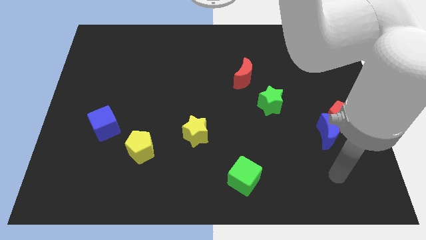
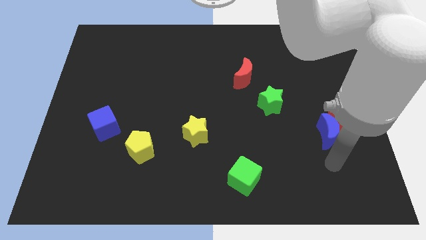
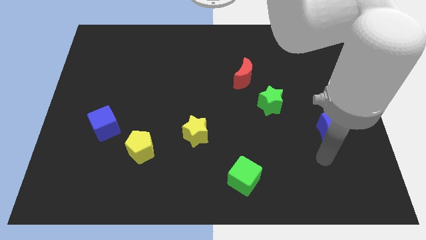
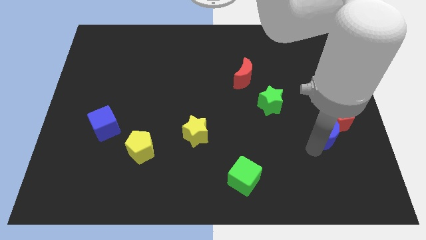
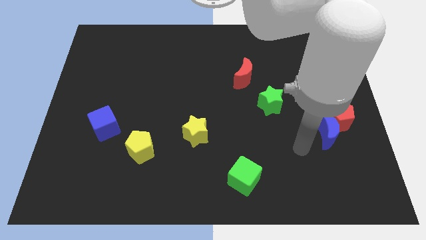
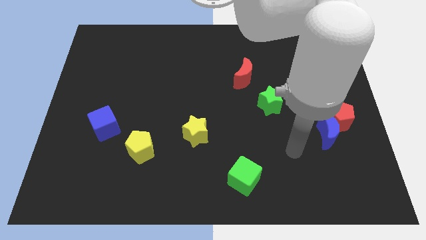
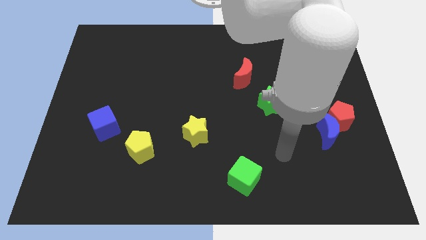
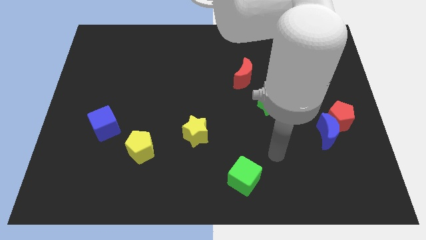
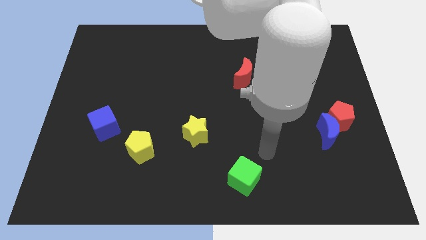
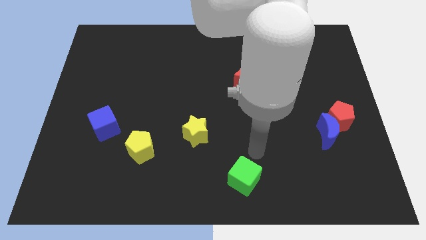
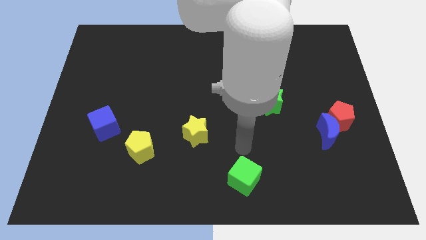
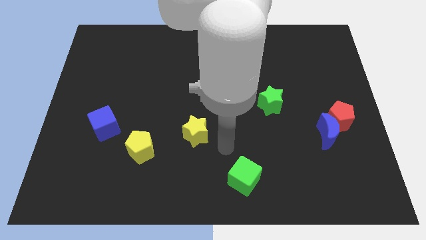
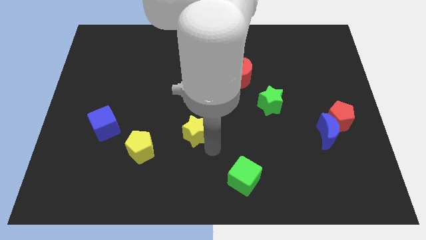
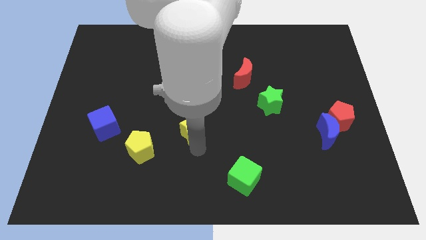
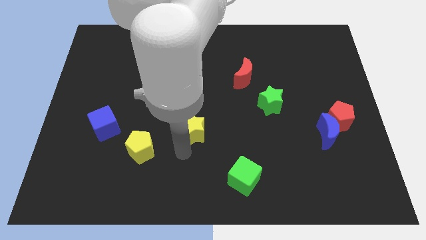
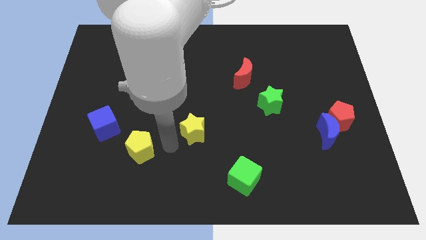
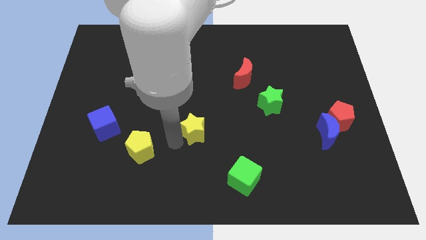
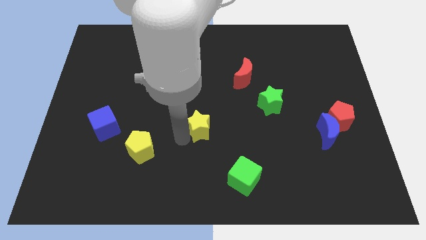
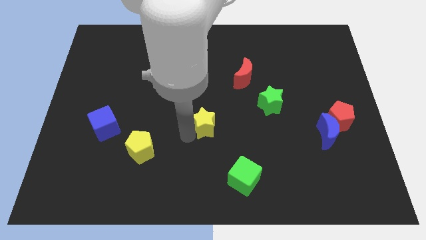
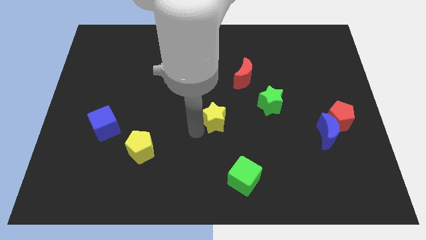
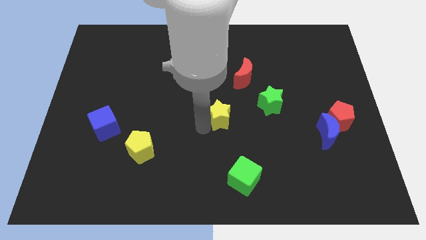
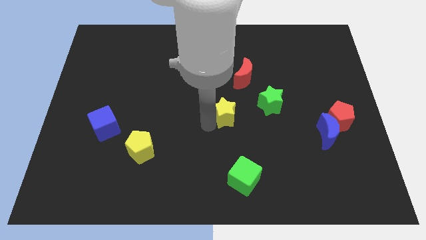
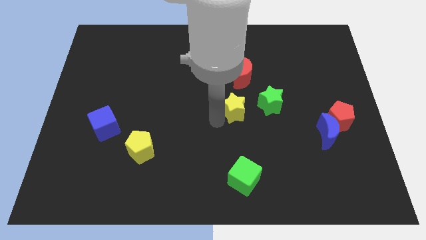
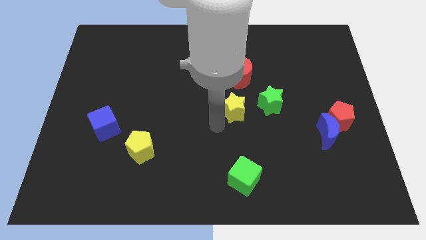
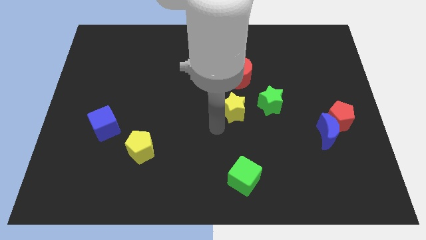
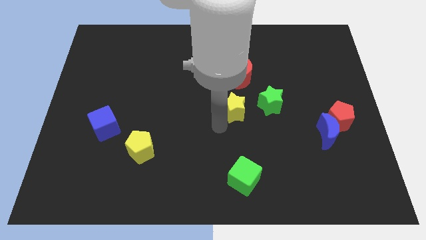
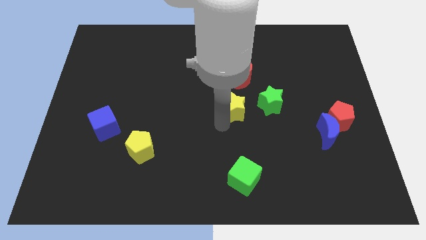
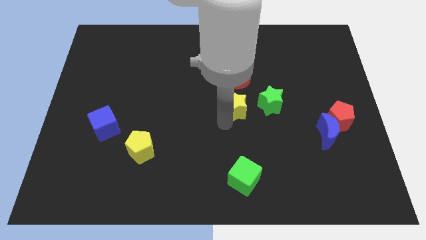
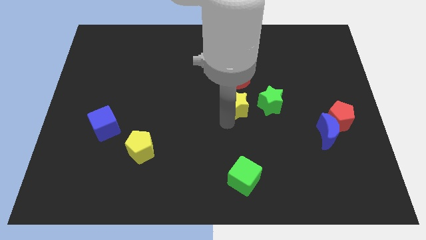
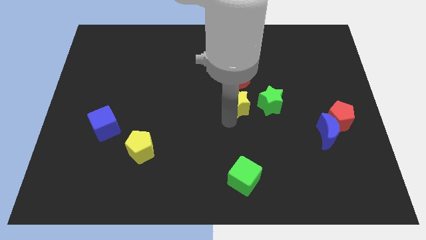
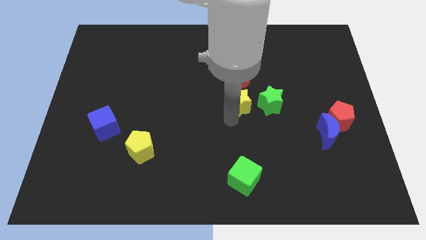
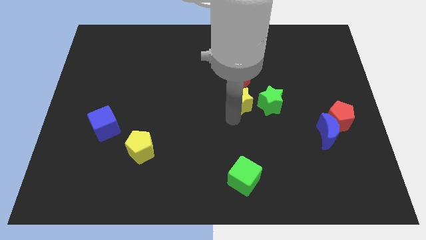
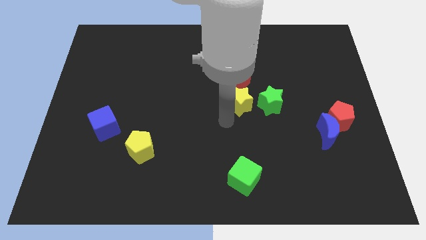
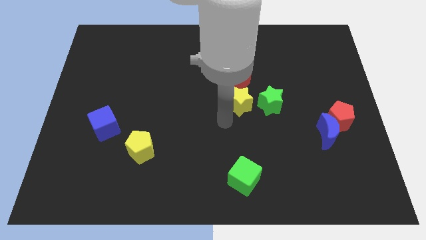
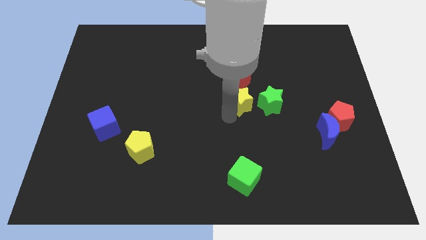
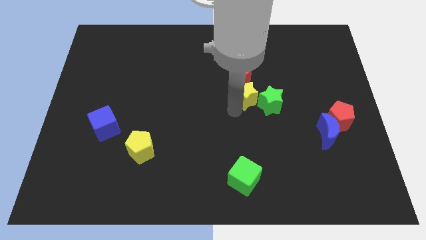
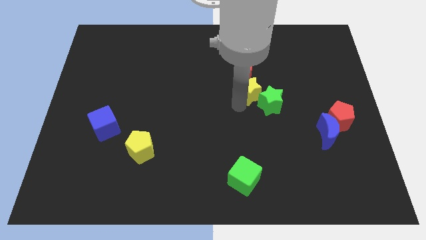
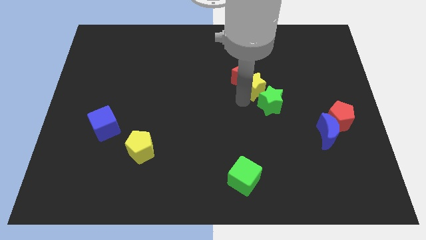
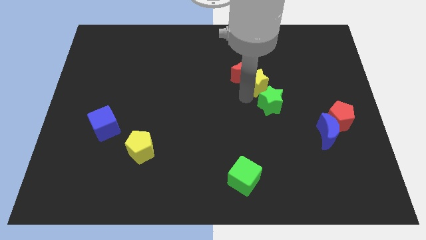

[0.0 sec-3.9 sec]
slide the yellow star upwards and then right

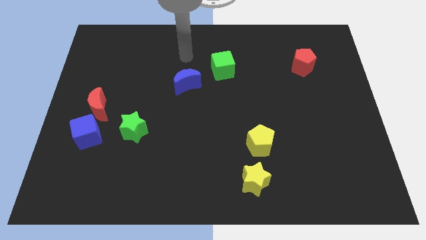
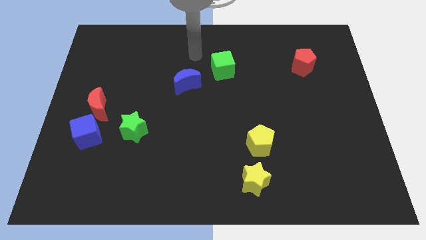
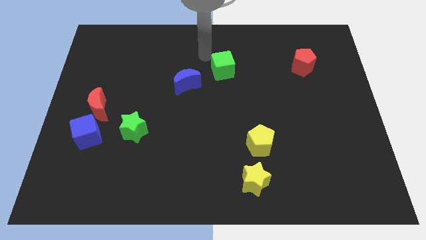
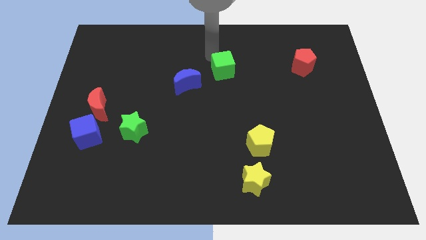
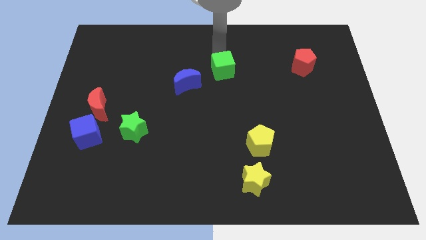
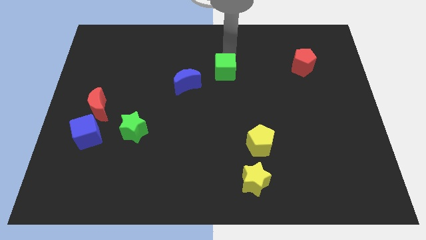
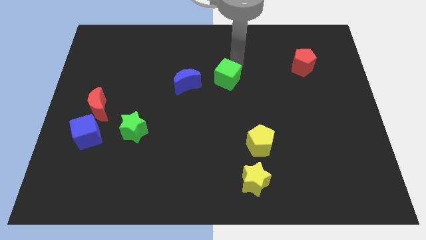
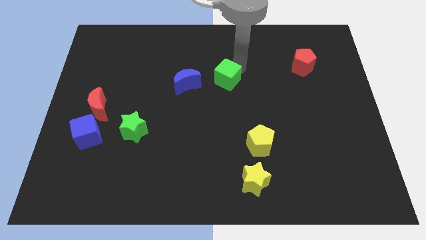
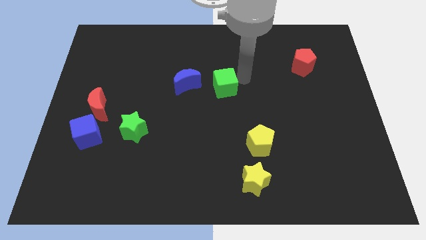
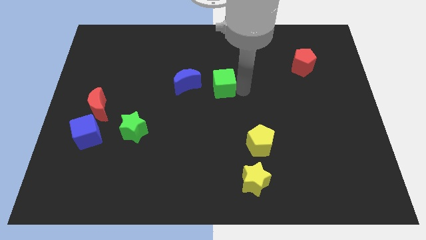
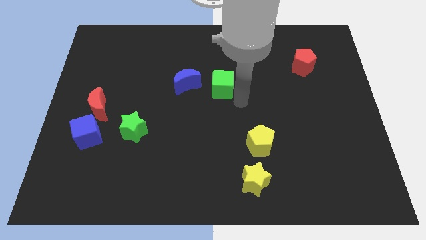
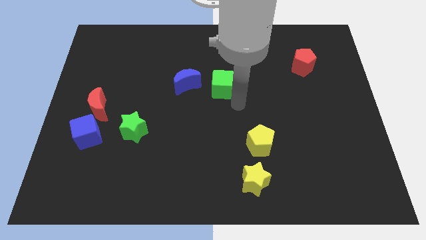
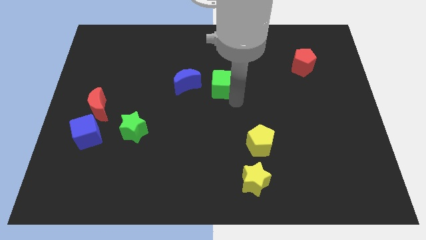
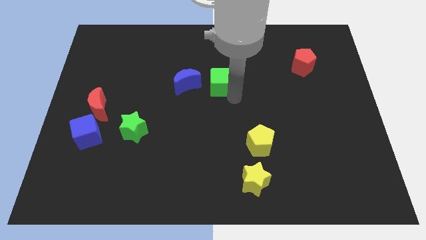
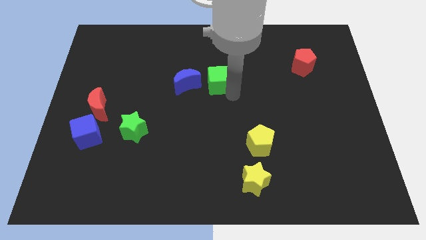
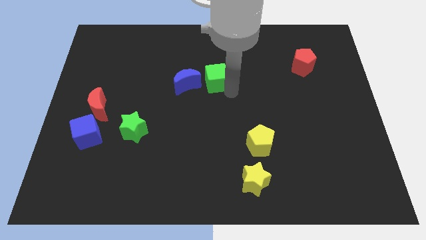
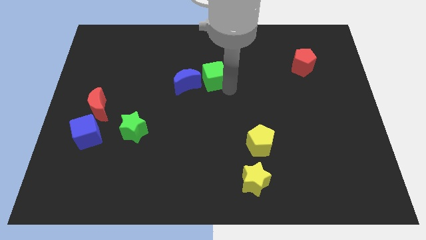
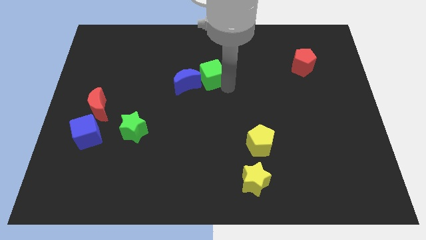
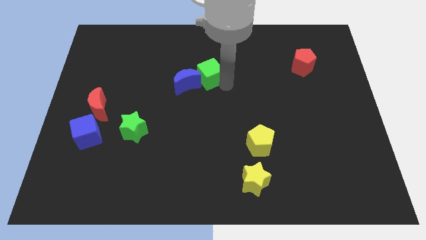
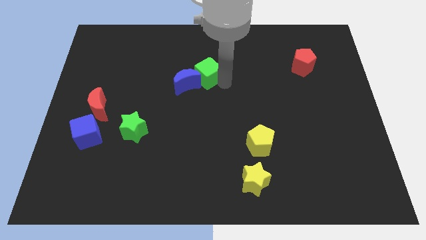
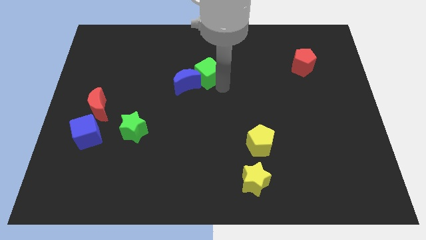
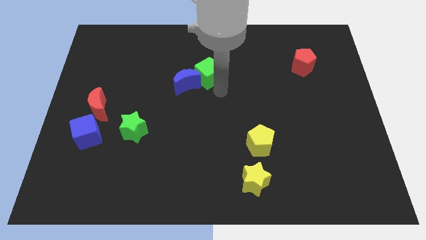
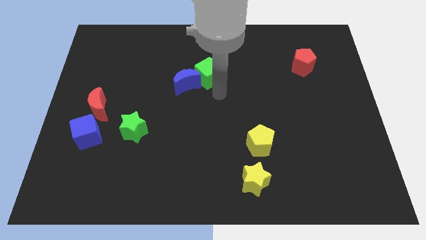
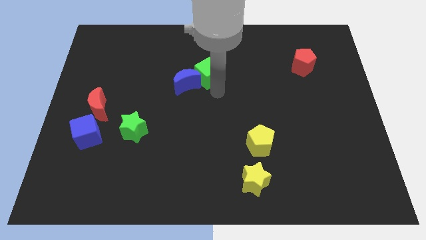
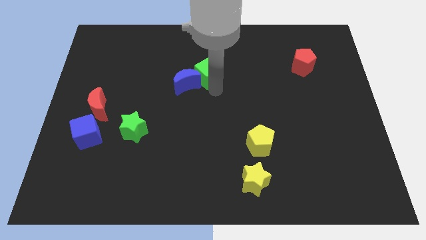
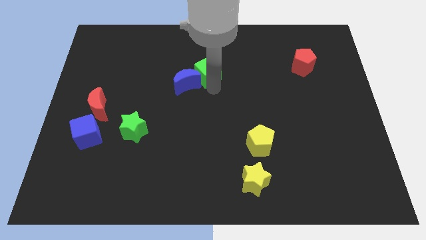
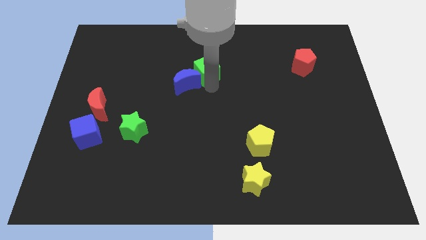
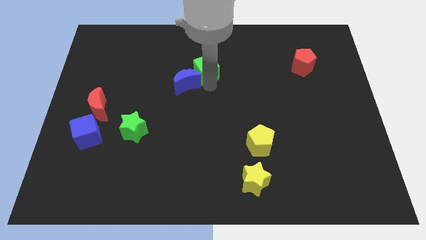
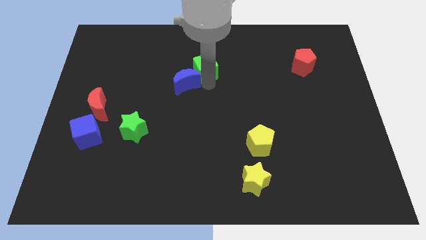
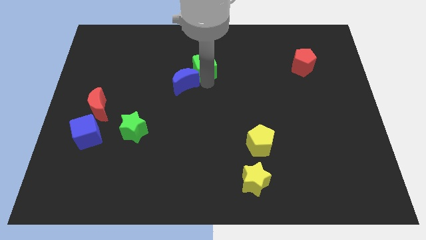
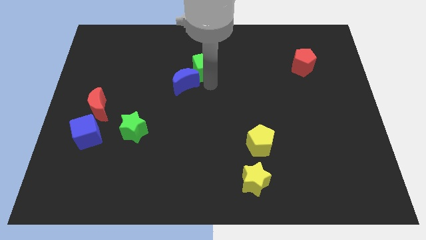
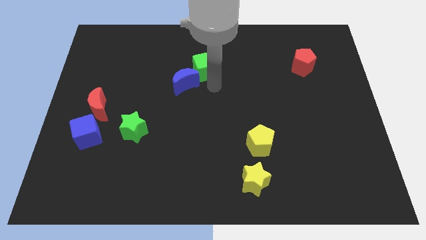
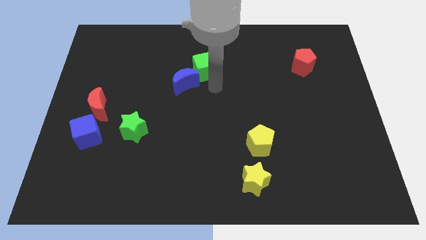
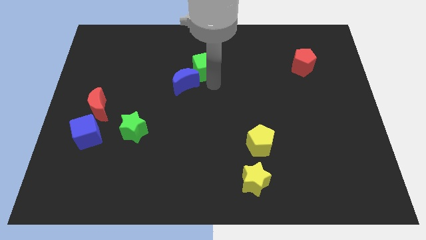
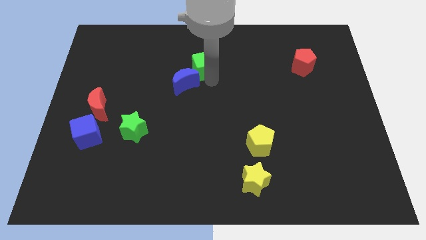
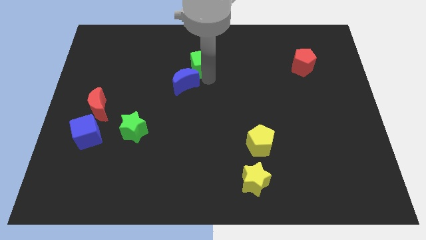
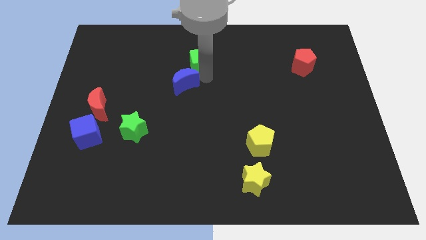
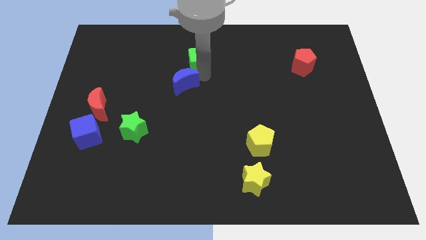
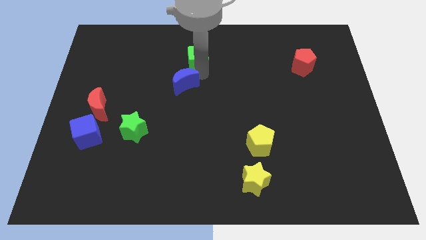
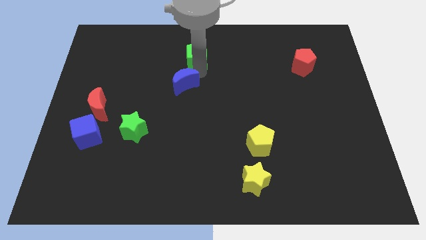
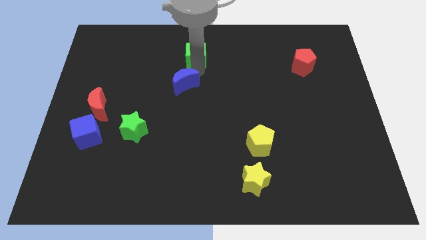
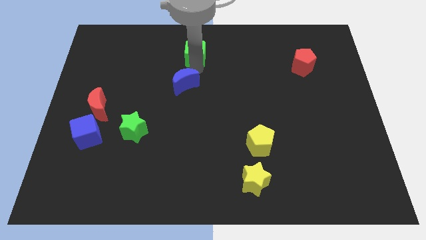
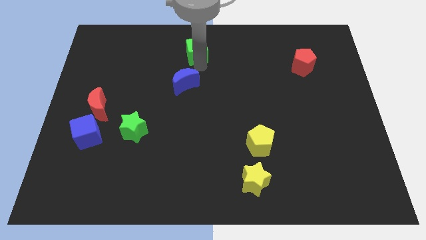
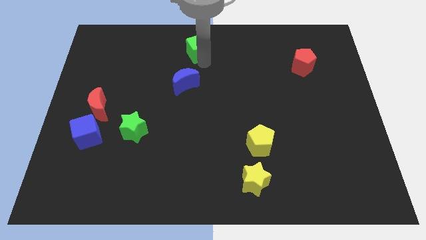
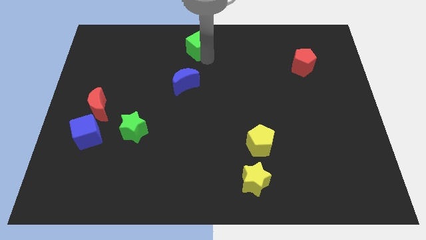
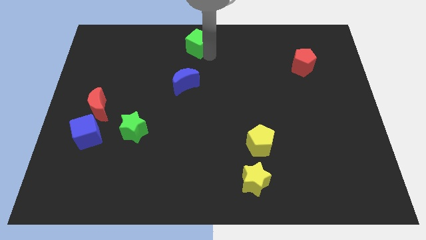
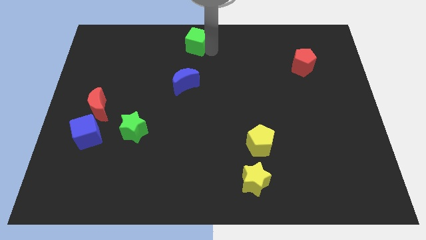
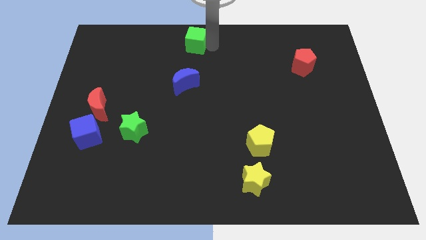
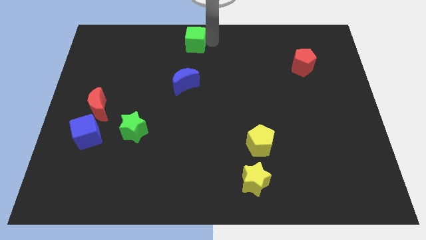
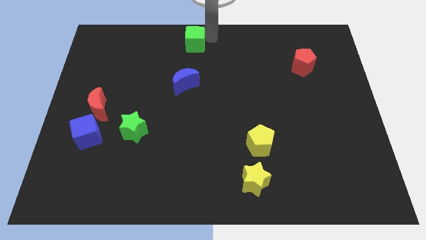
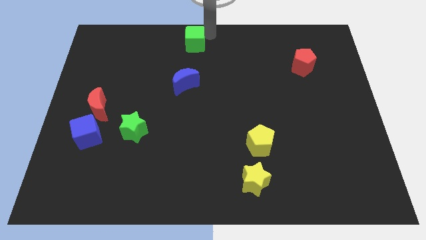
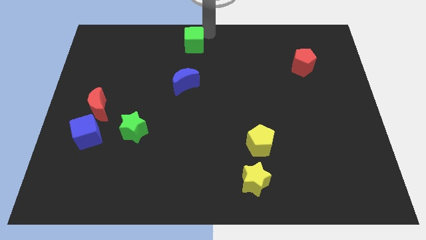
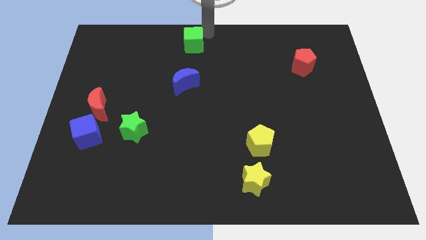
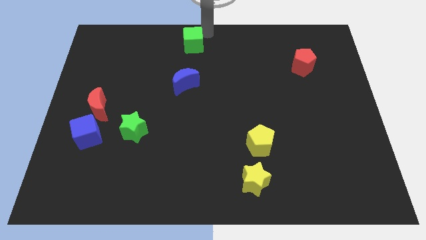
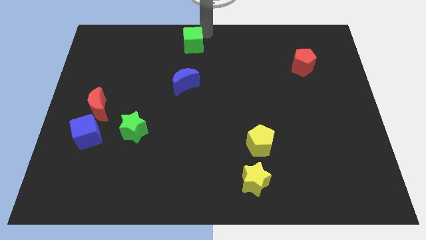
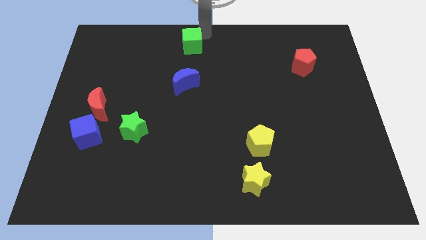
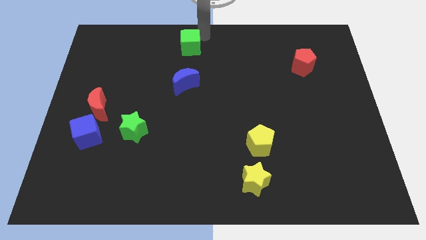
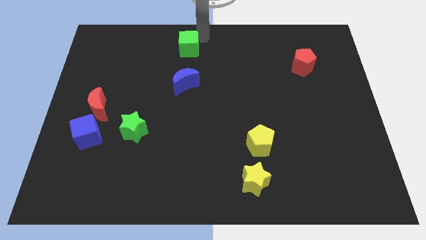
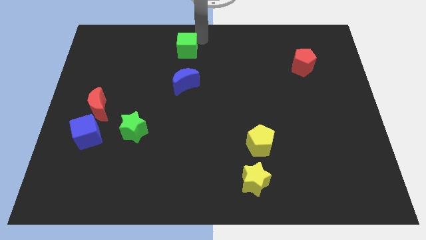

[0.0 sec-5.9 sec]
push the green cube left a little
